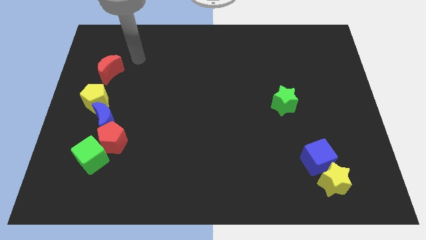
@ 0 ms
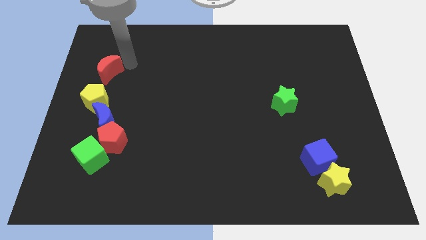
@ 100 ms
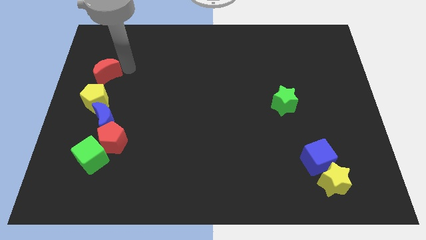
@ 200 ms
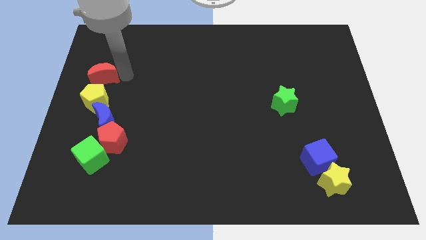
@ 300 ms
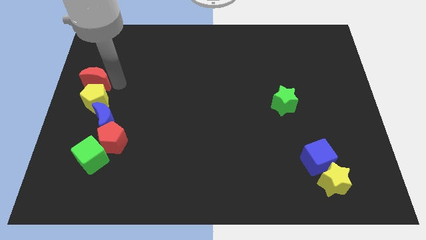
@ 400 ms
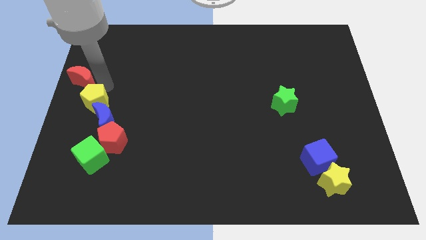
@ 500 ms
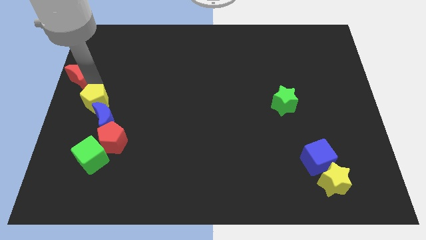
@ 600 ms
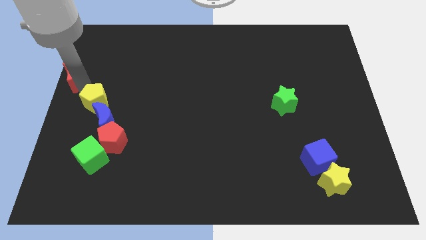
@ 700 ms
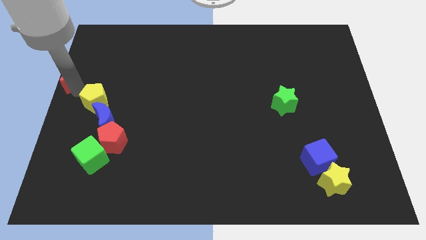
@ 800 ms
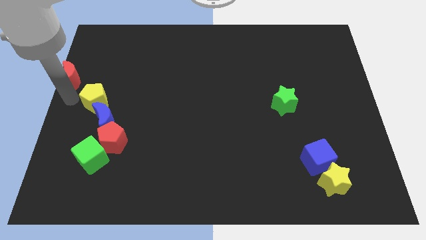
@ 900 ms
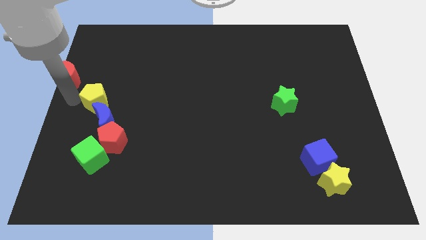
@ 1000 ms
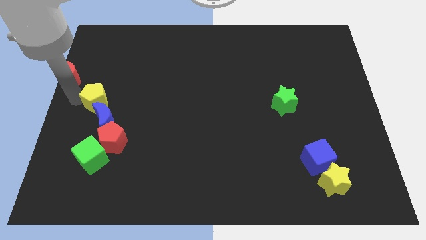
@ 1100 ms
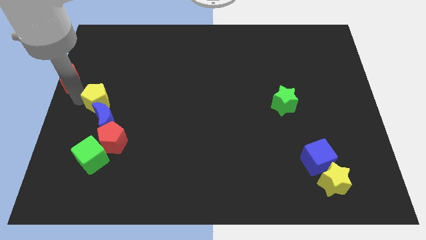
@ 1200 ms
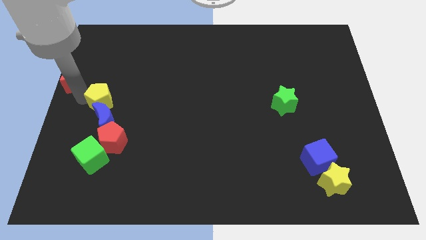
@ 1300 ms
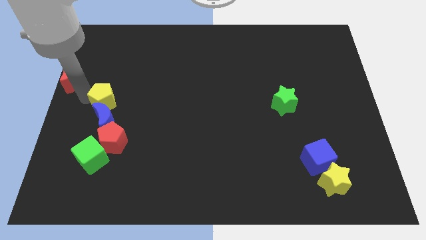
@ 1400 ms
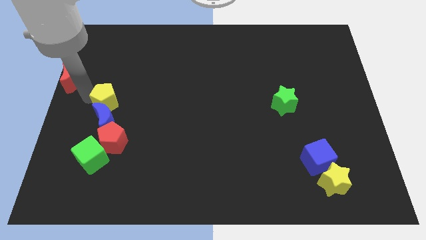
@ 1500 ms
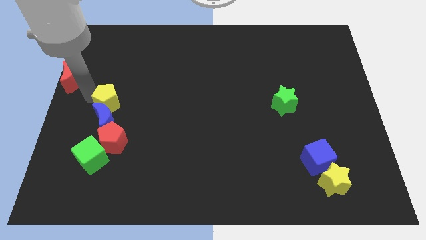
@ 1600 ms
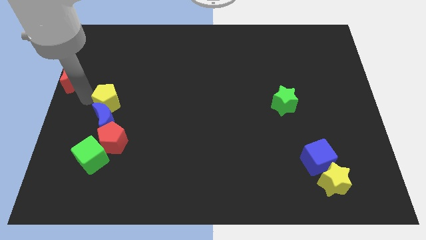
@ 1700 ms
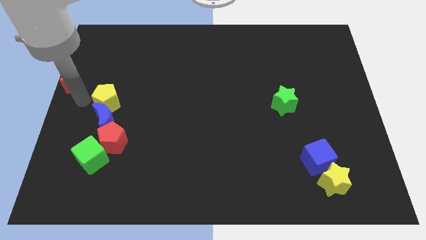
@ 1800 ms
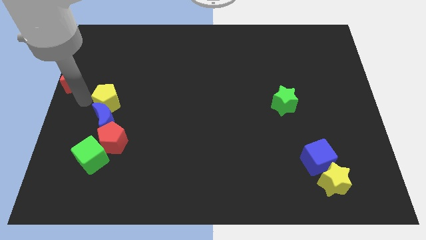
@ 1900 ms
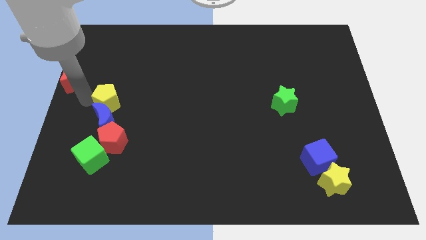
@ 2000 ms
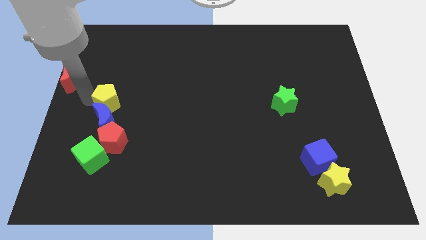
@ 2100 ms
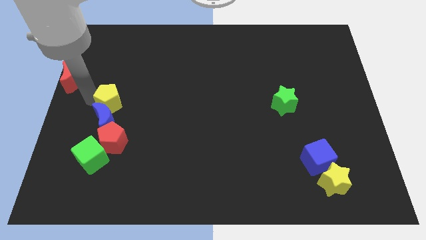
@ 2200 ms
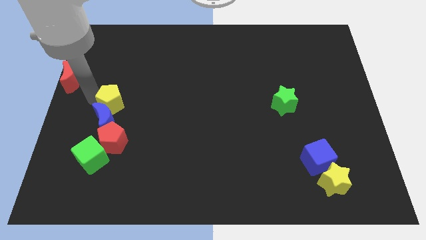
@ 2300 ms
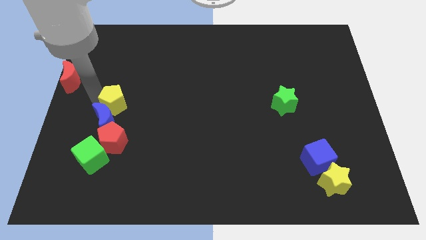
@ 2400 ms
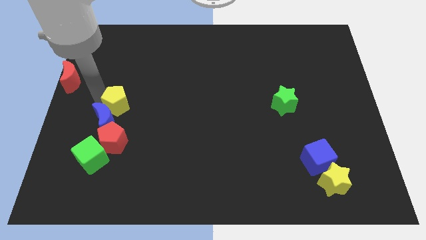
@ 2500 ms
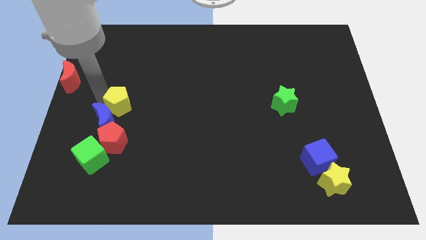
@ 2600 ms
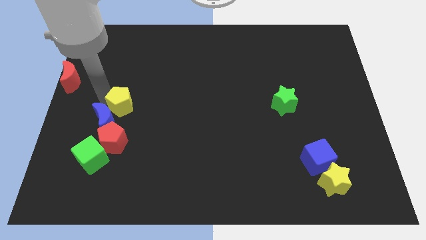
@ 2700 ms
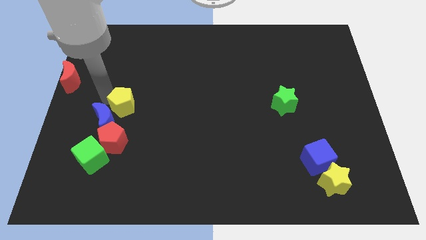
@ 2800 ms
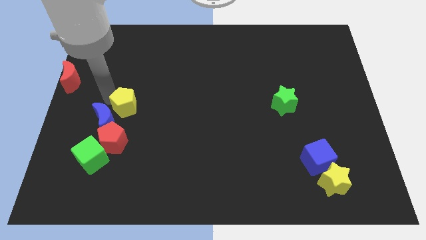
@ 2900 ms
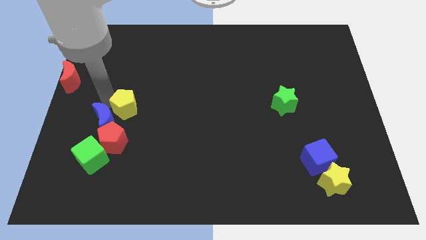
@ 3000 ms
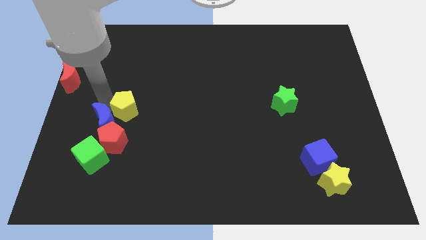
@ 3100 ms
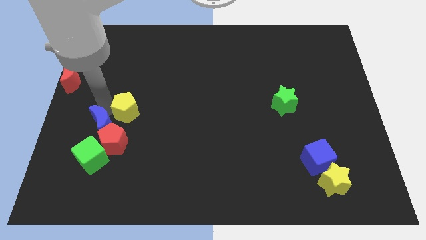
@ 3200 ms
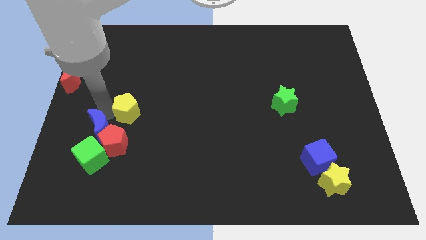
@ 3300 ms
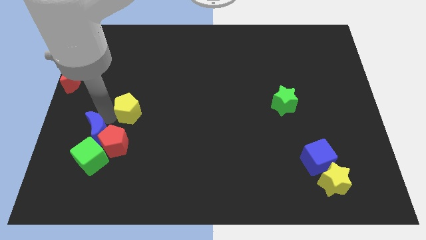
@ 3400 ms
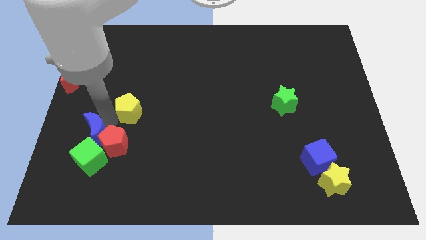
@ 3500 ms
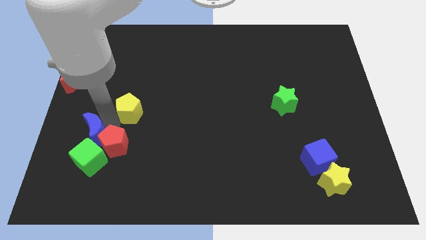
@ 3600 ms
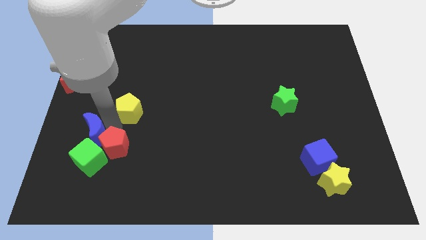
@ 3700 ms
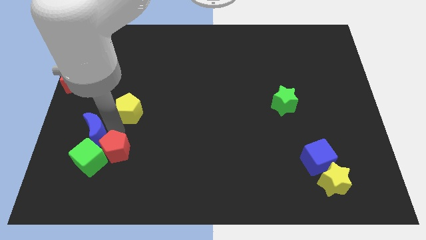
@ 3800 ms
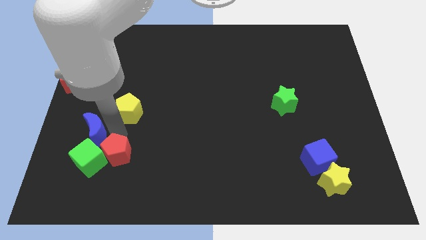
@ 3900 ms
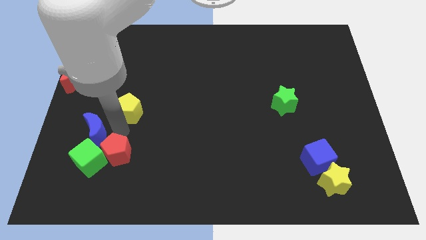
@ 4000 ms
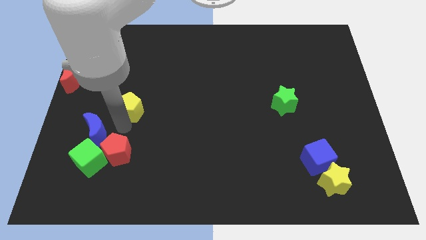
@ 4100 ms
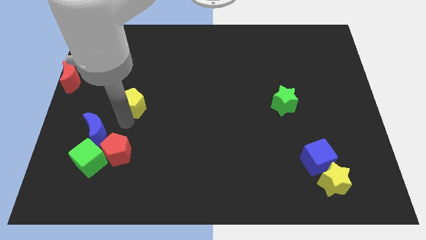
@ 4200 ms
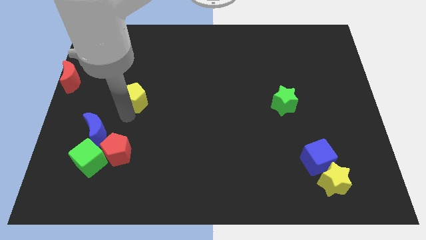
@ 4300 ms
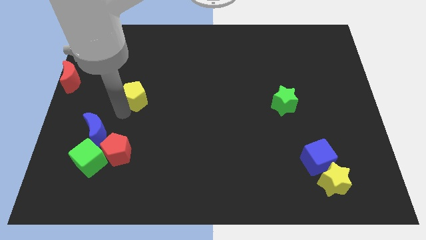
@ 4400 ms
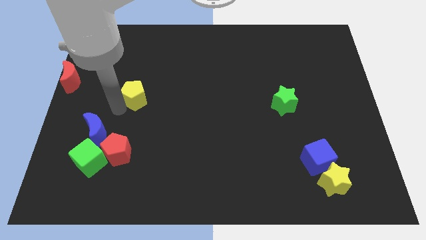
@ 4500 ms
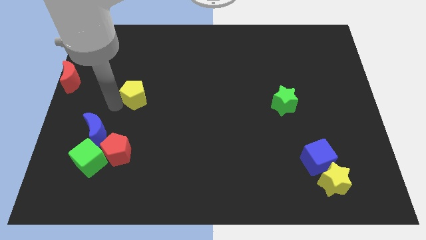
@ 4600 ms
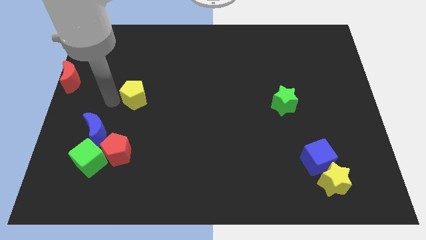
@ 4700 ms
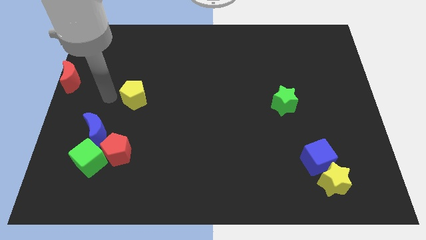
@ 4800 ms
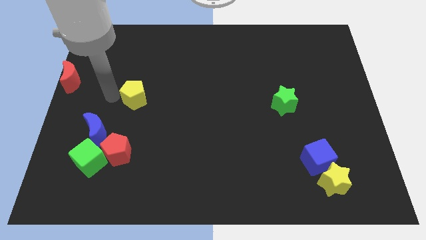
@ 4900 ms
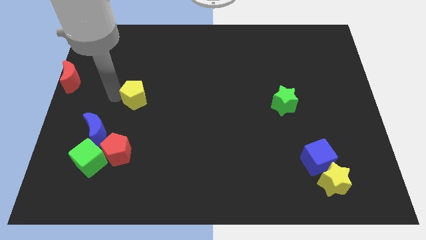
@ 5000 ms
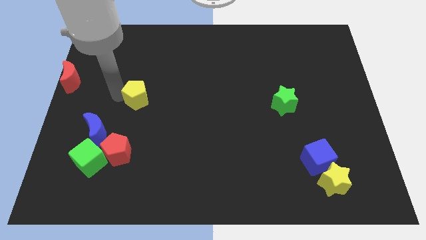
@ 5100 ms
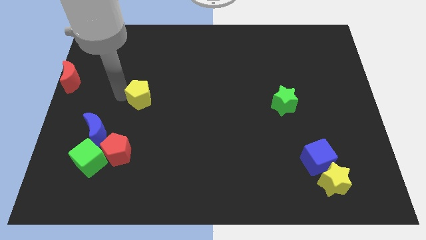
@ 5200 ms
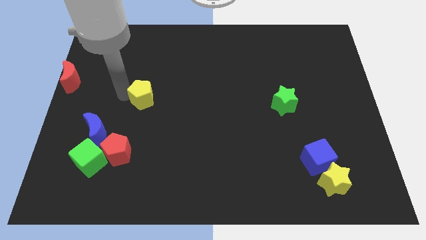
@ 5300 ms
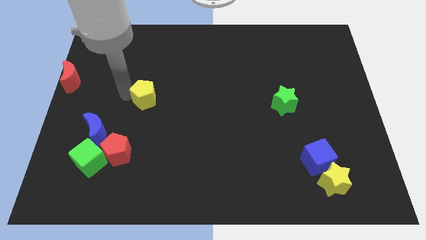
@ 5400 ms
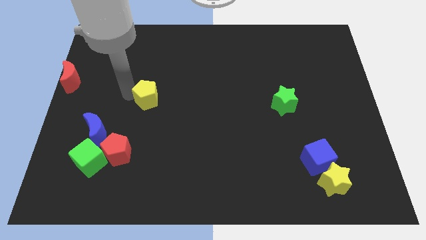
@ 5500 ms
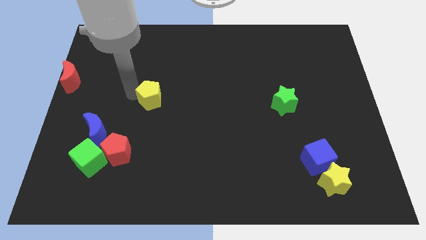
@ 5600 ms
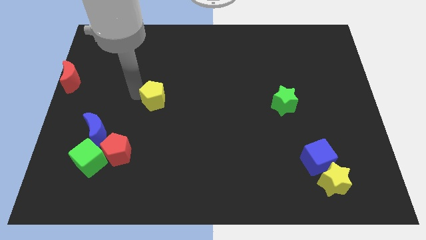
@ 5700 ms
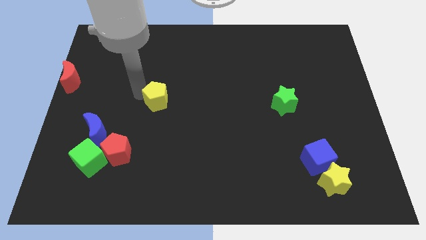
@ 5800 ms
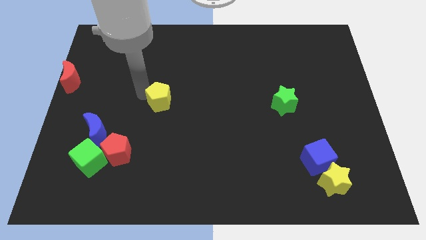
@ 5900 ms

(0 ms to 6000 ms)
put the yellow pentagon to the center of the board

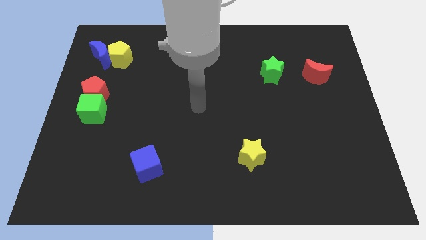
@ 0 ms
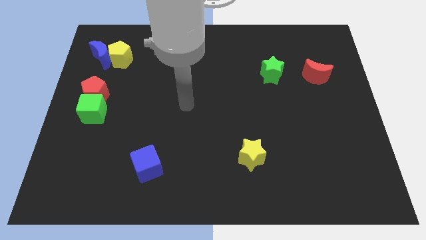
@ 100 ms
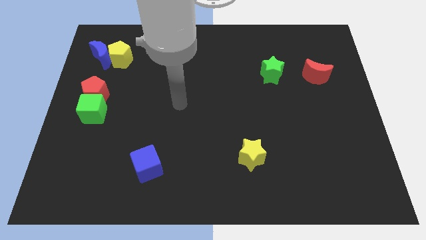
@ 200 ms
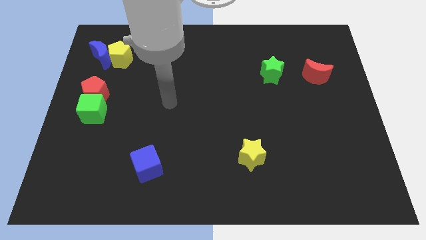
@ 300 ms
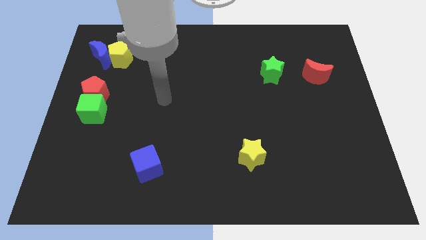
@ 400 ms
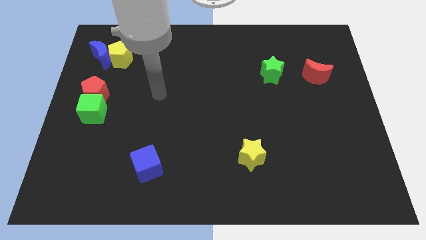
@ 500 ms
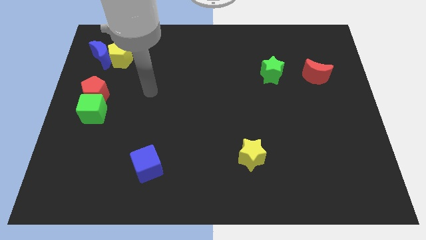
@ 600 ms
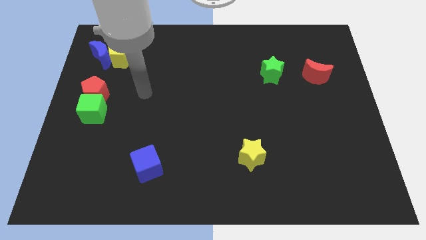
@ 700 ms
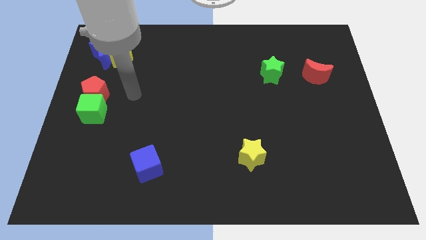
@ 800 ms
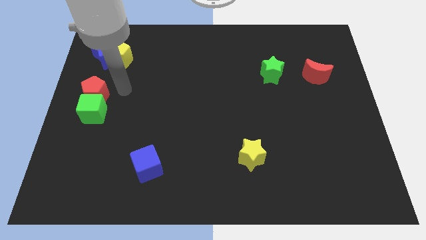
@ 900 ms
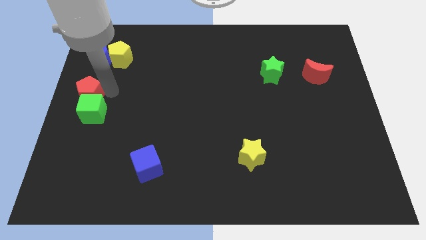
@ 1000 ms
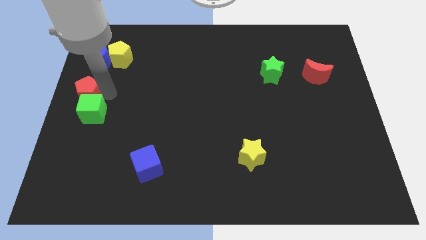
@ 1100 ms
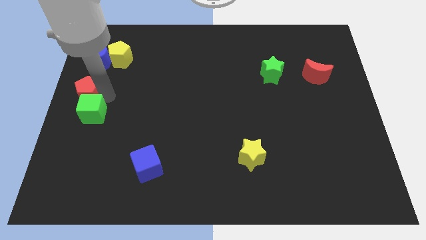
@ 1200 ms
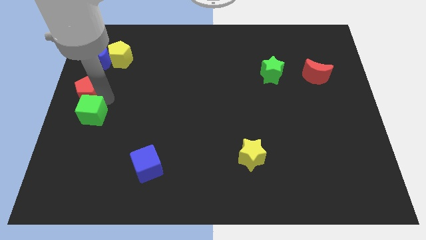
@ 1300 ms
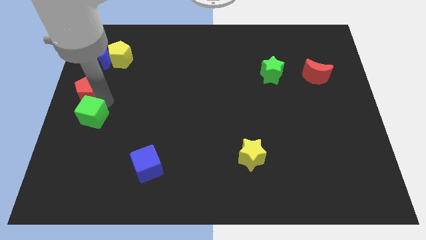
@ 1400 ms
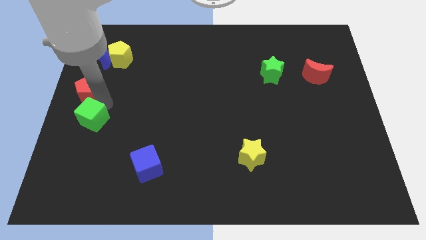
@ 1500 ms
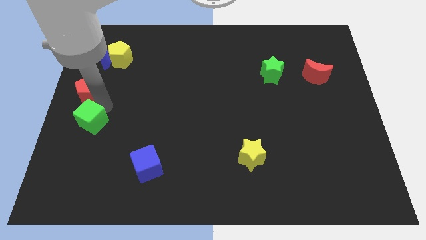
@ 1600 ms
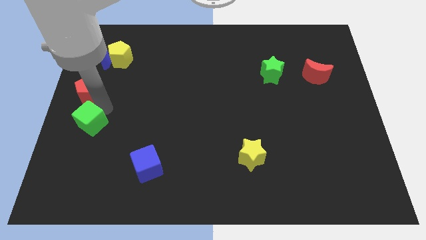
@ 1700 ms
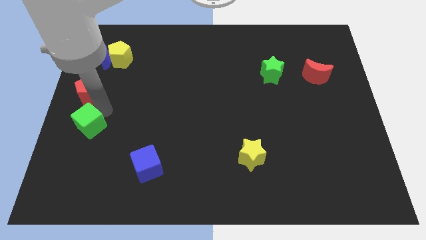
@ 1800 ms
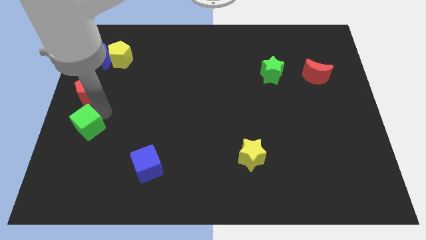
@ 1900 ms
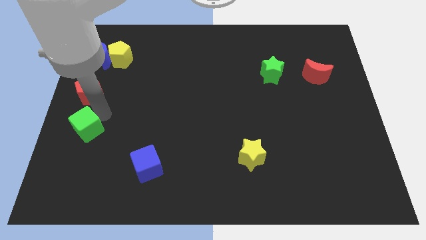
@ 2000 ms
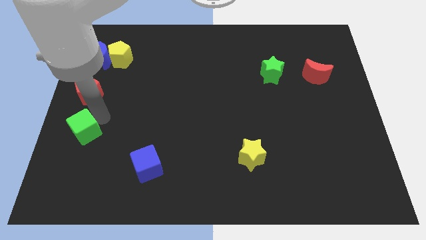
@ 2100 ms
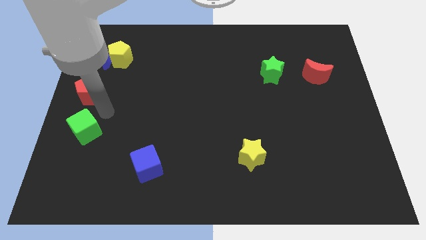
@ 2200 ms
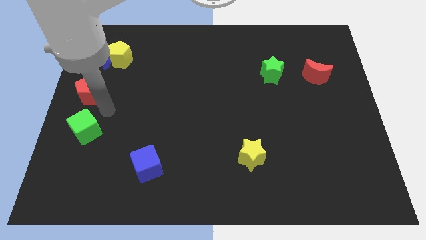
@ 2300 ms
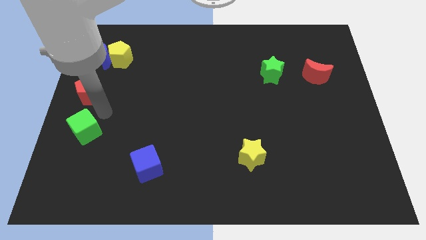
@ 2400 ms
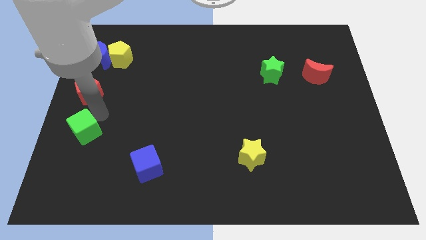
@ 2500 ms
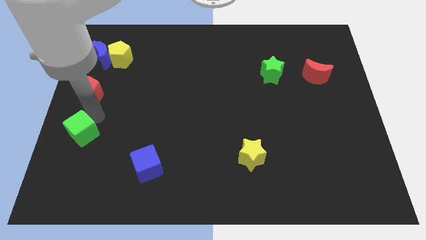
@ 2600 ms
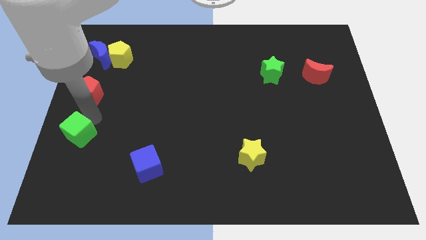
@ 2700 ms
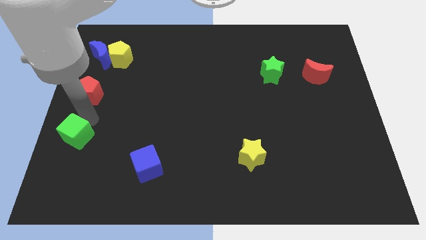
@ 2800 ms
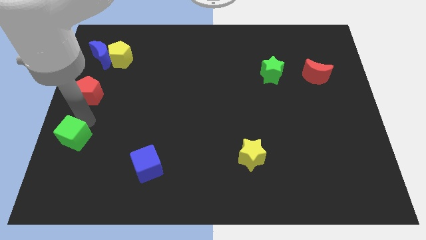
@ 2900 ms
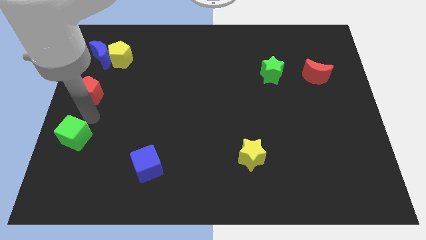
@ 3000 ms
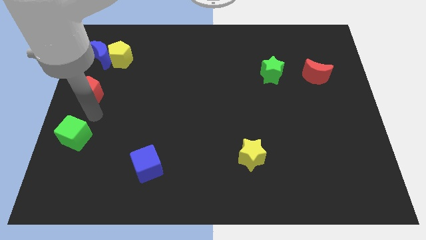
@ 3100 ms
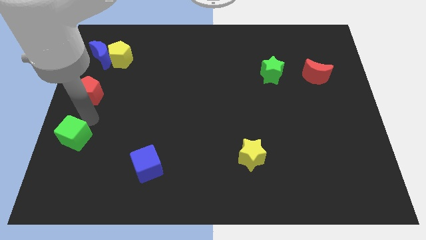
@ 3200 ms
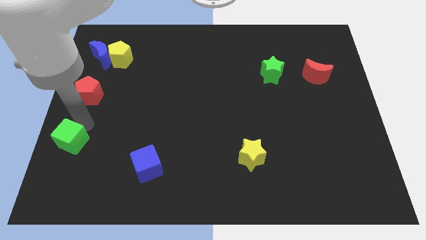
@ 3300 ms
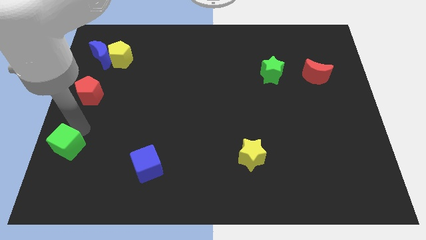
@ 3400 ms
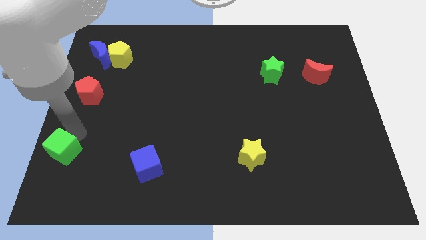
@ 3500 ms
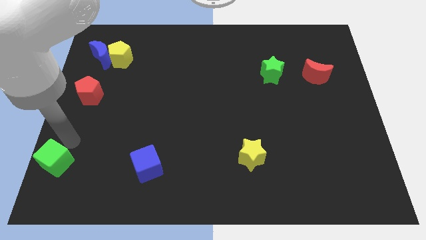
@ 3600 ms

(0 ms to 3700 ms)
push the green cube to the lower left corner
